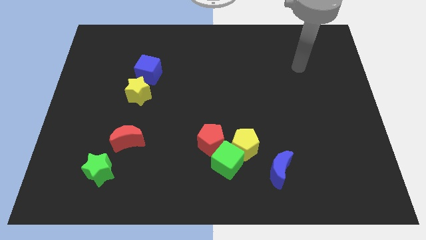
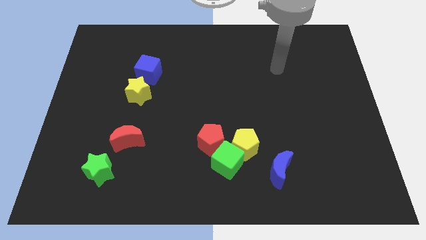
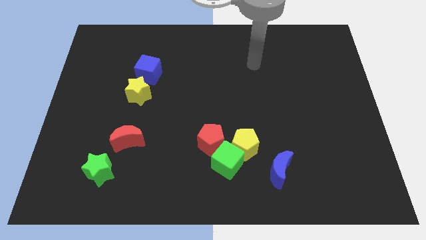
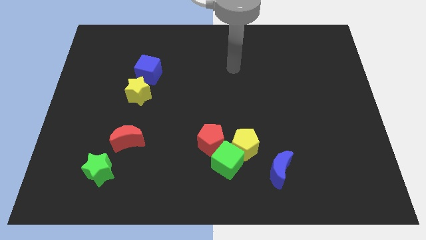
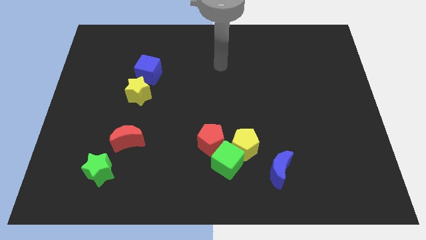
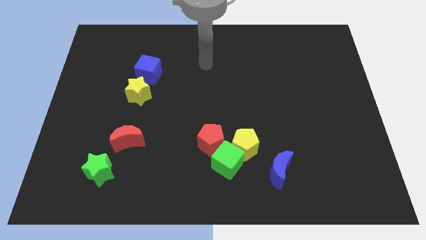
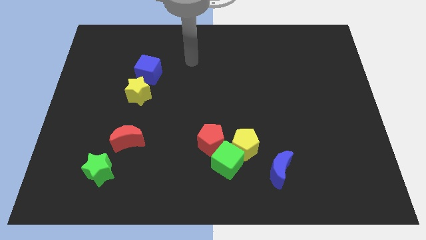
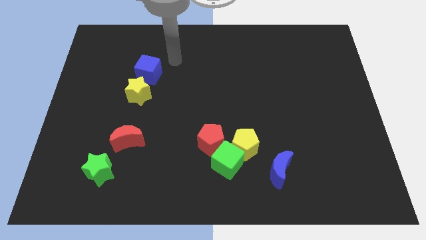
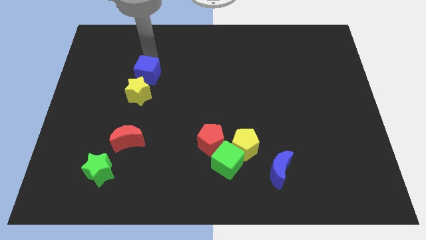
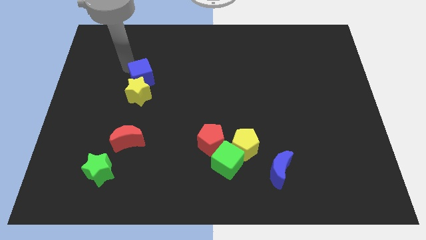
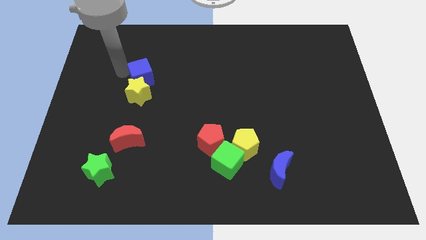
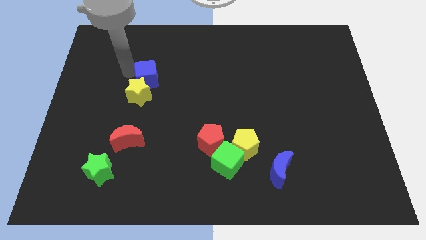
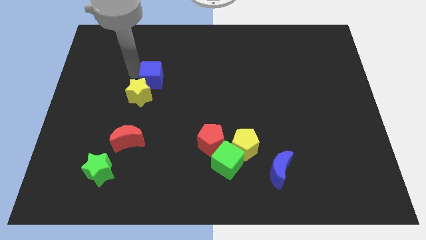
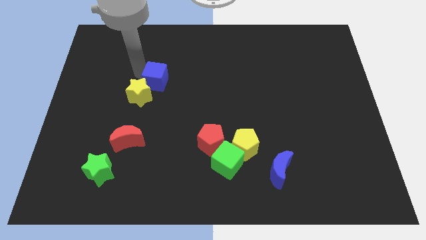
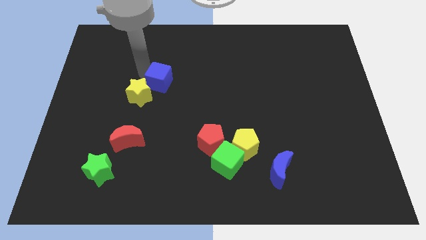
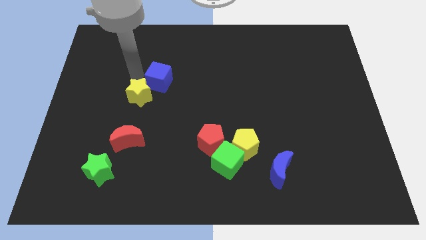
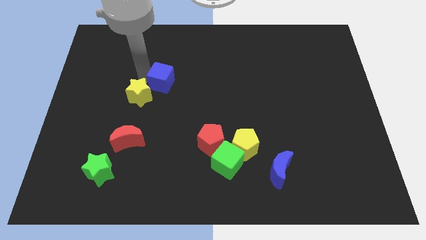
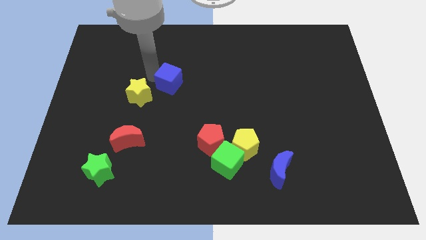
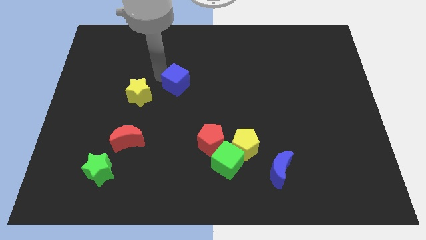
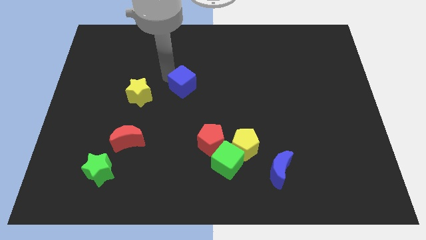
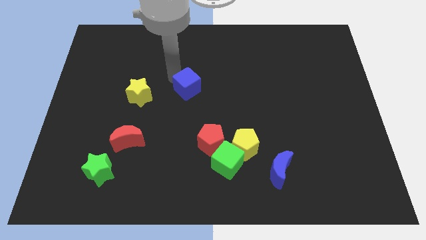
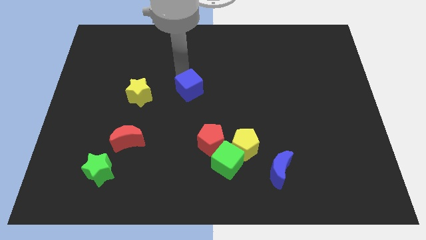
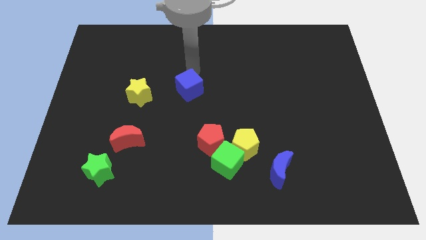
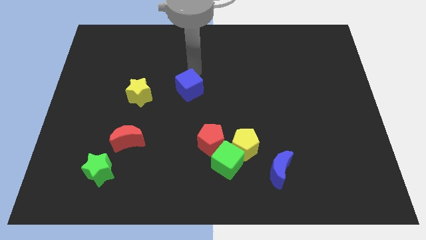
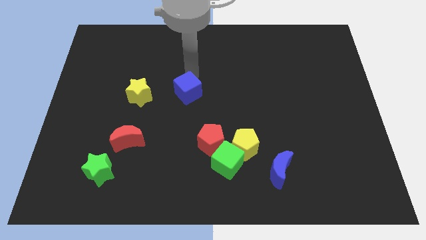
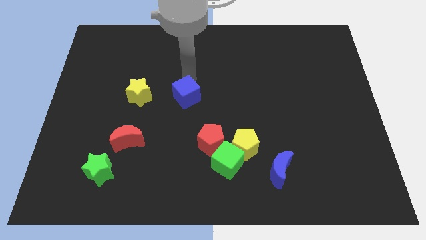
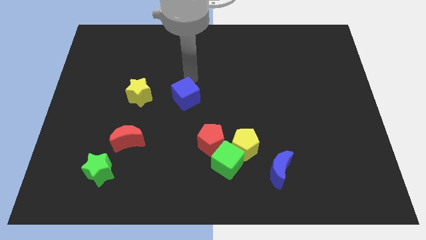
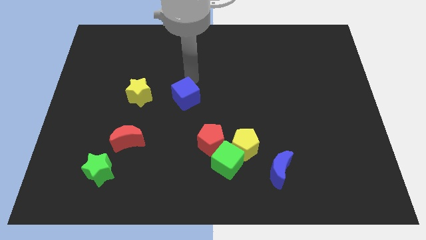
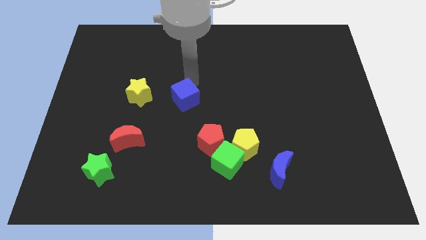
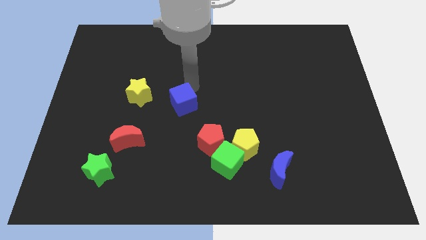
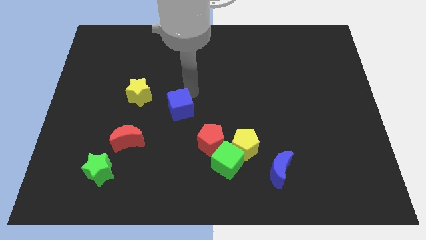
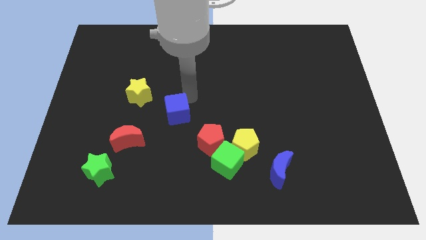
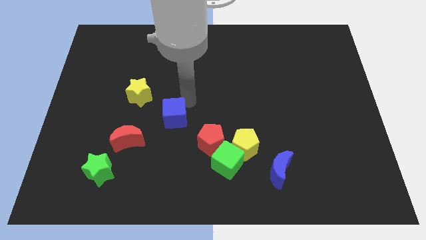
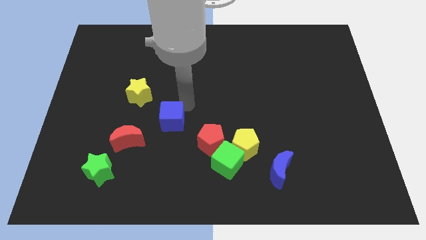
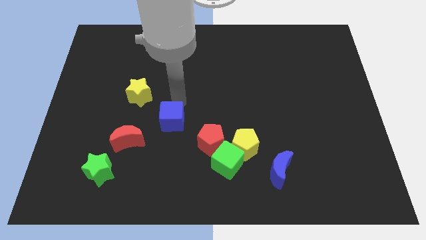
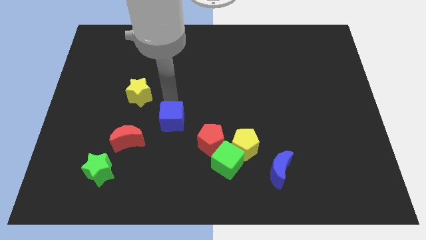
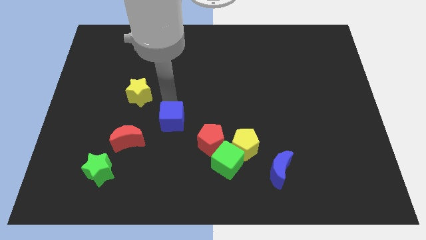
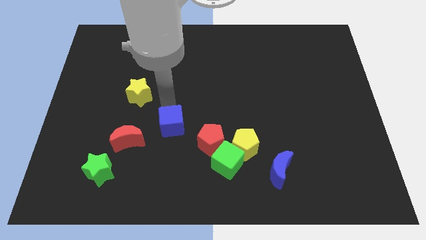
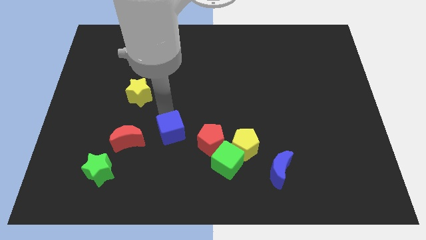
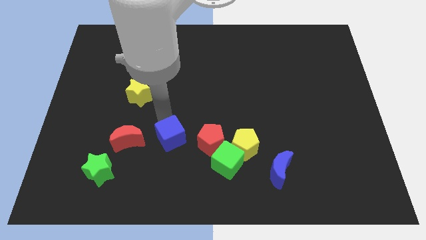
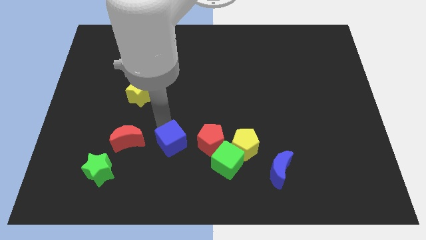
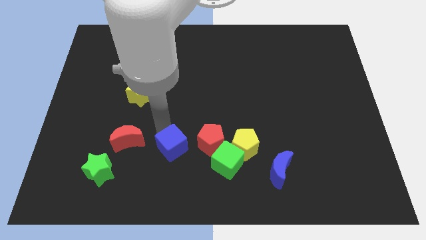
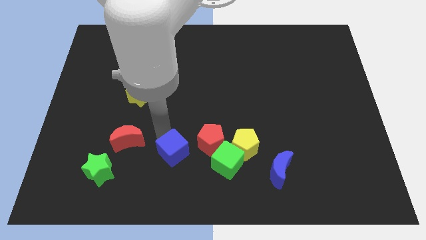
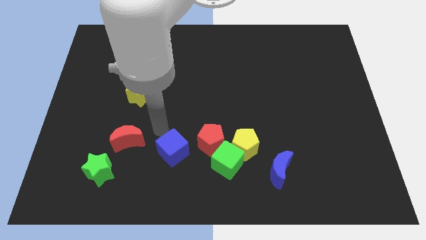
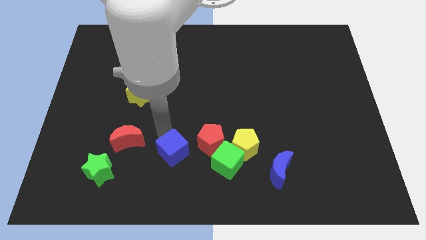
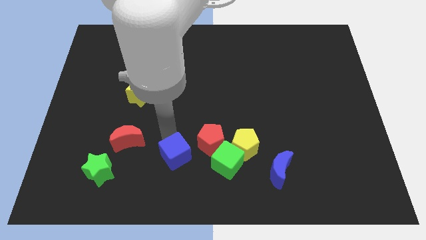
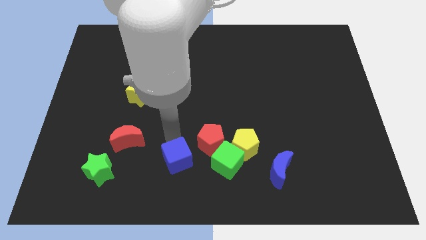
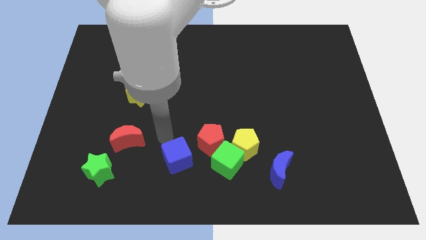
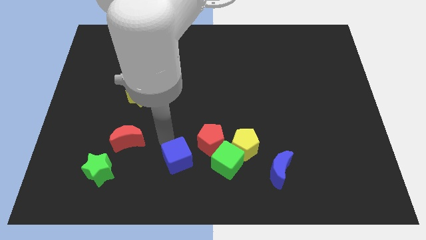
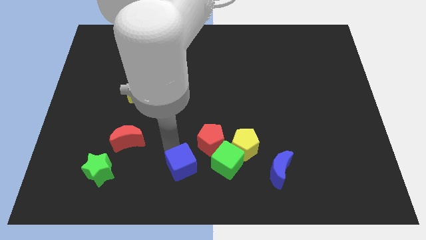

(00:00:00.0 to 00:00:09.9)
put the blue cube to the bottom

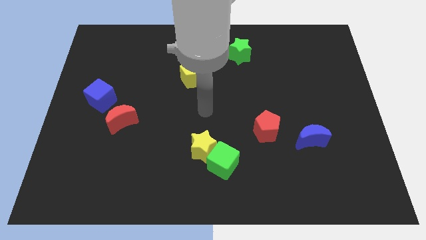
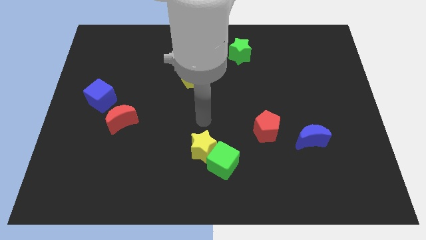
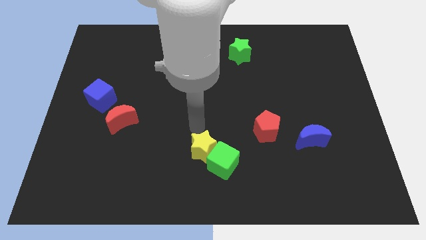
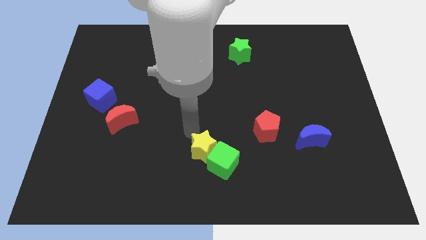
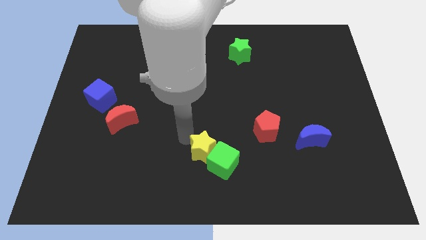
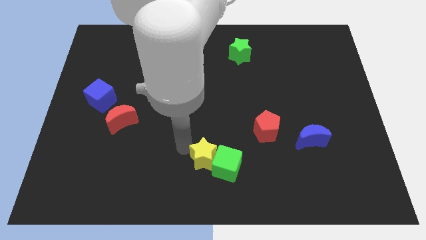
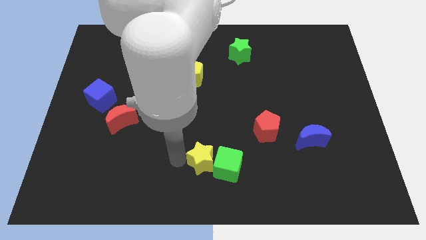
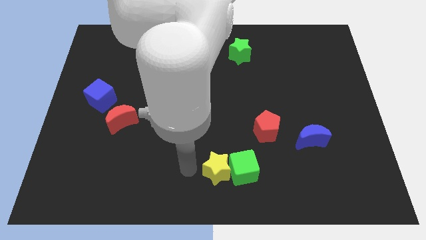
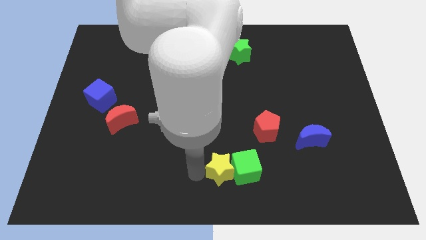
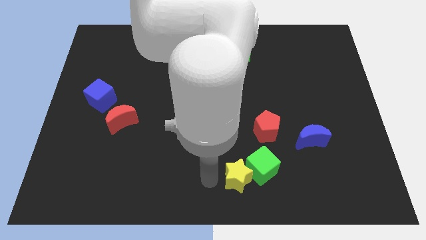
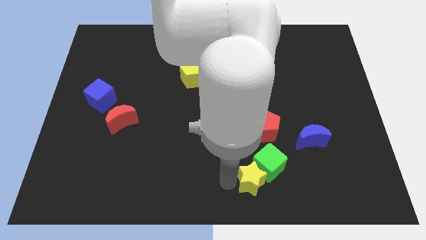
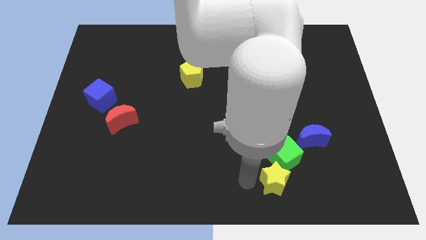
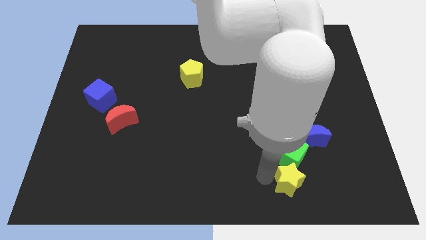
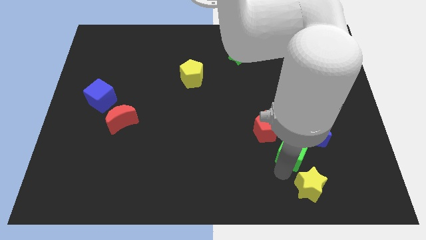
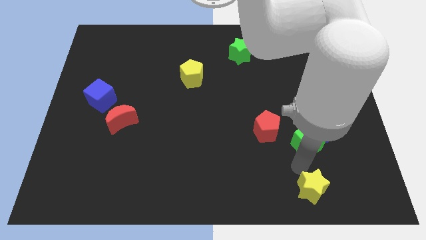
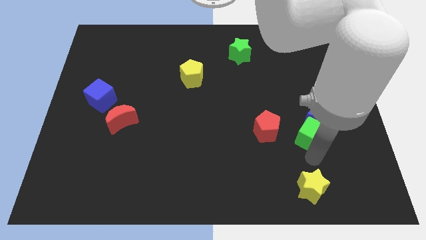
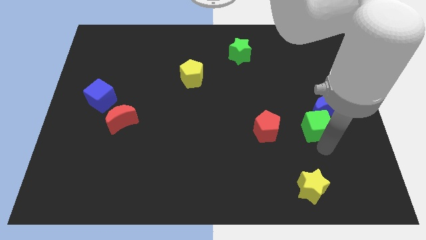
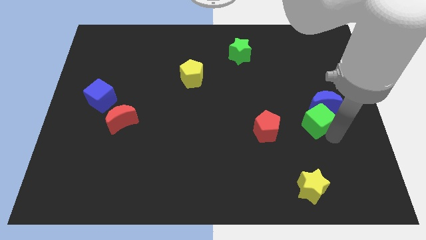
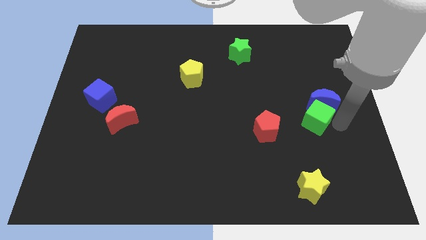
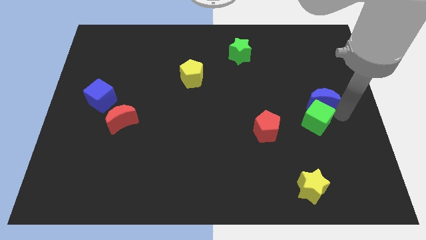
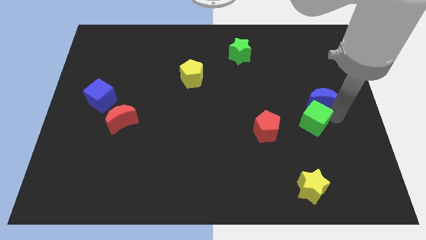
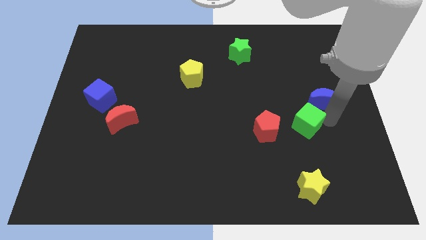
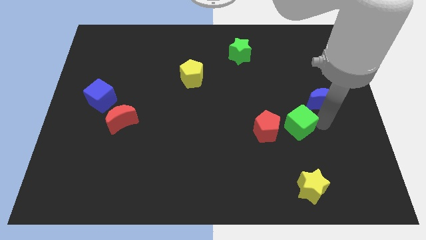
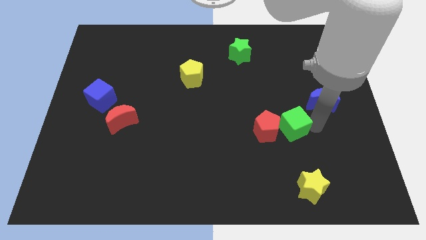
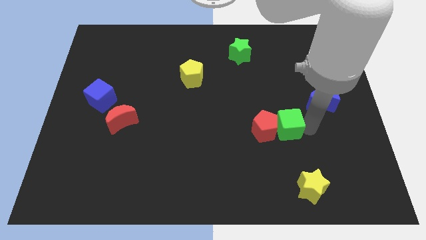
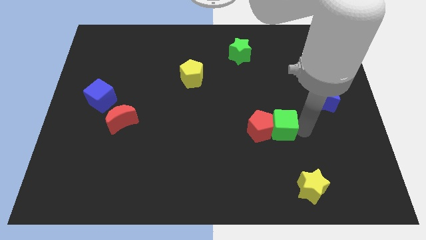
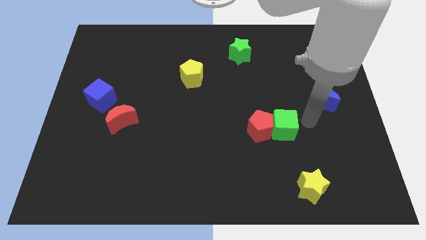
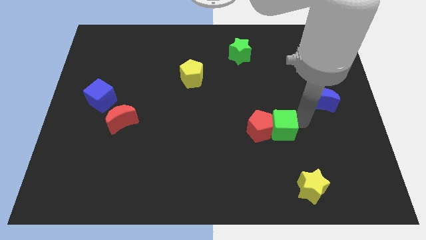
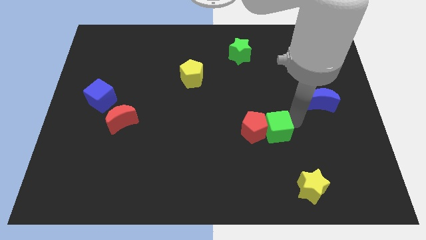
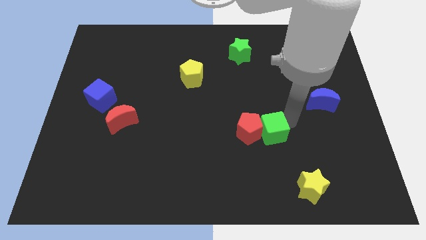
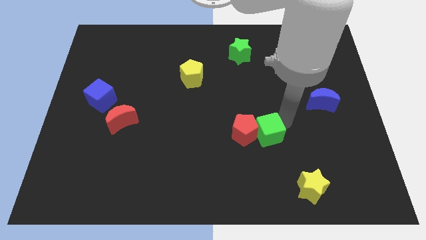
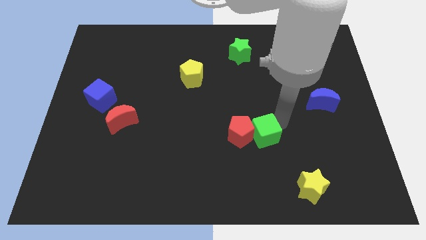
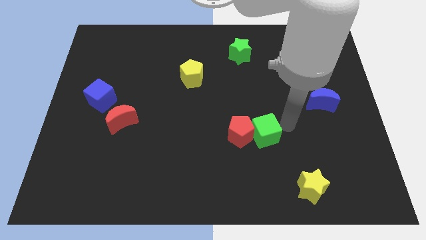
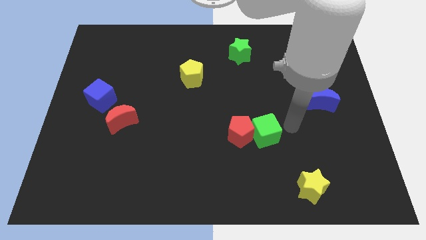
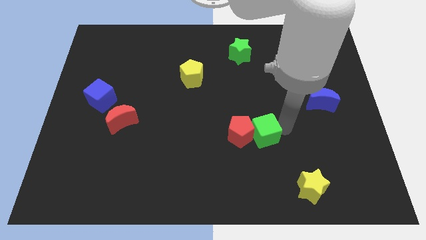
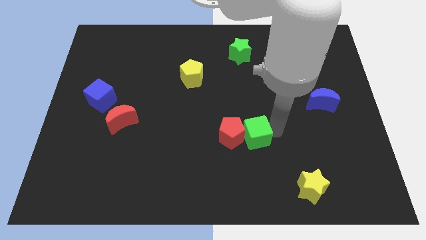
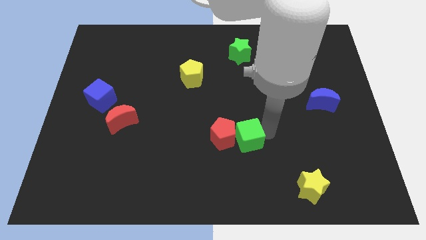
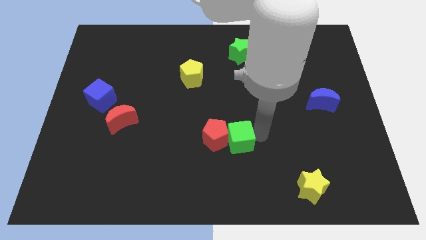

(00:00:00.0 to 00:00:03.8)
put the green cube to the center

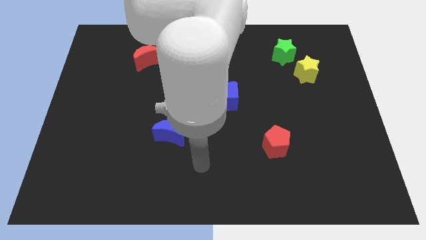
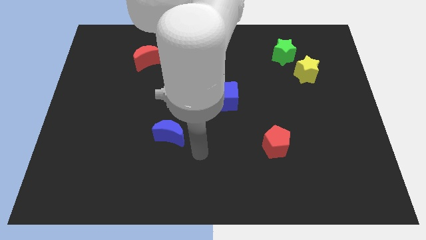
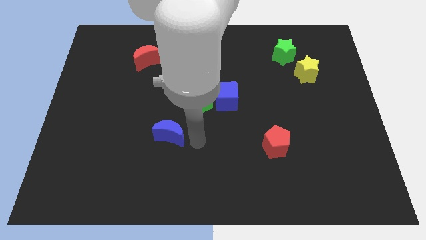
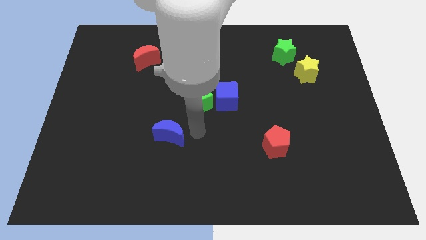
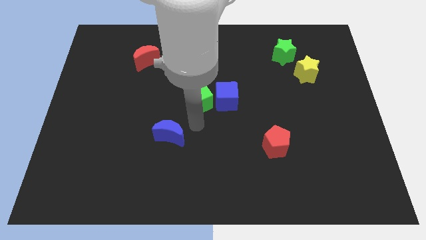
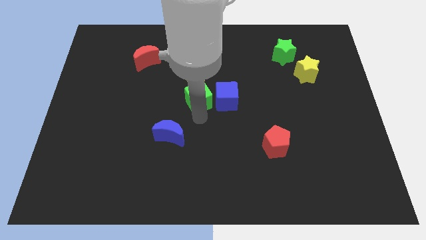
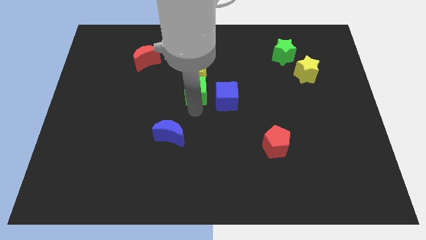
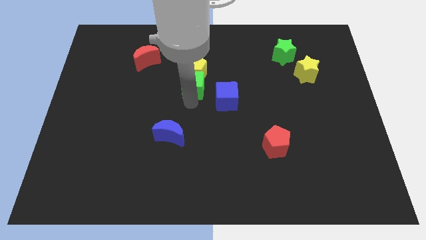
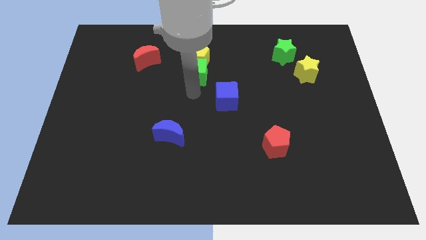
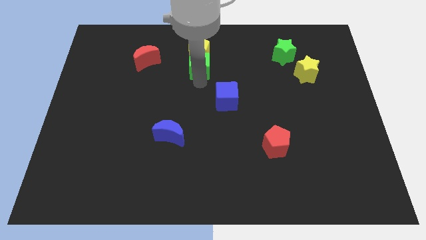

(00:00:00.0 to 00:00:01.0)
put the yellow pentagon to the top side
